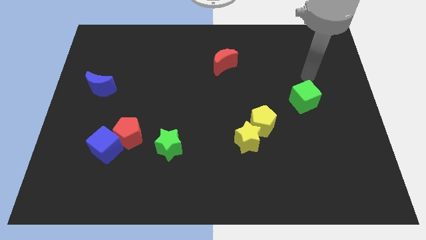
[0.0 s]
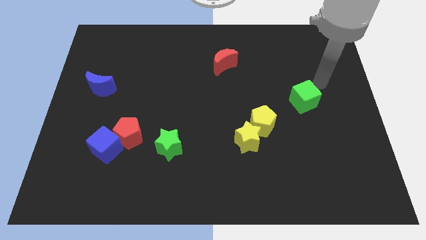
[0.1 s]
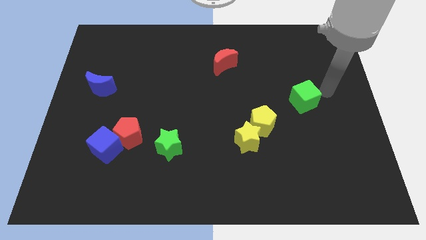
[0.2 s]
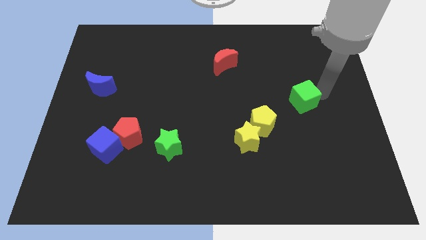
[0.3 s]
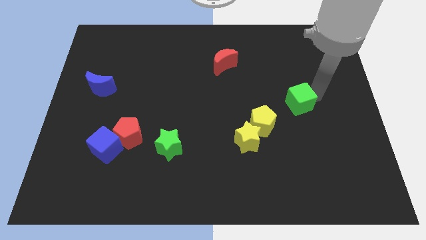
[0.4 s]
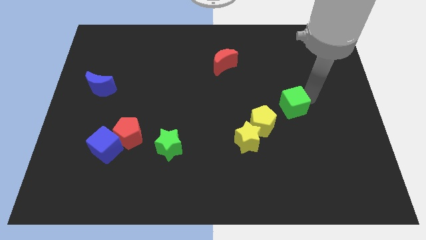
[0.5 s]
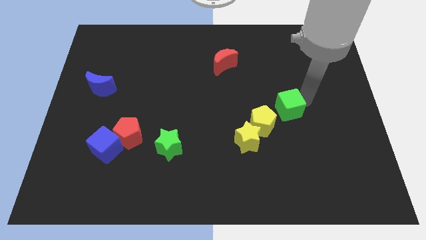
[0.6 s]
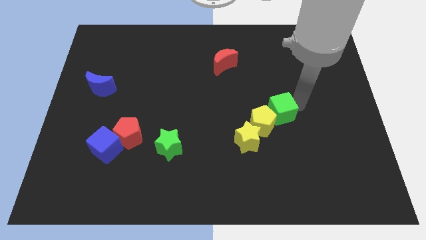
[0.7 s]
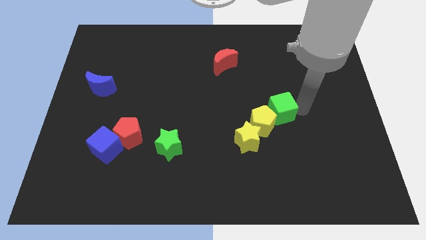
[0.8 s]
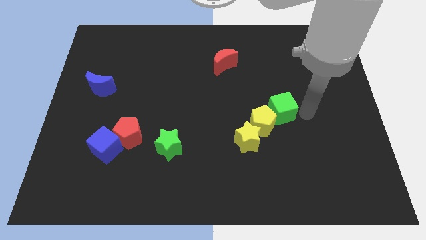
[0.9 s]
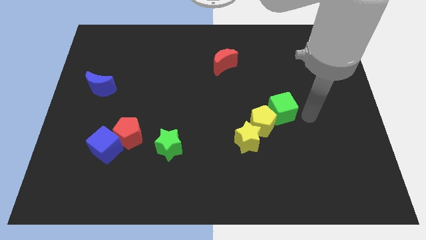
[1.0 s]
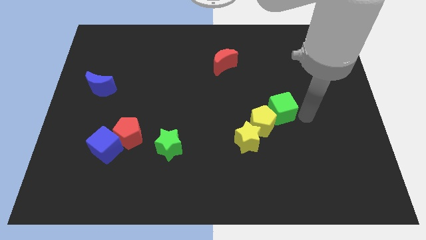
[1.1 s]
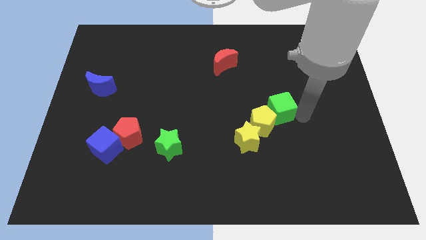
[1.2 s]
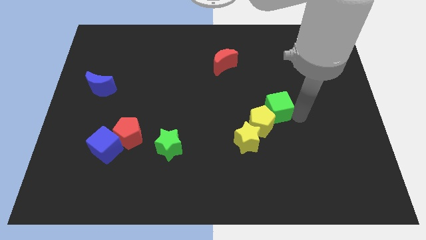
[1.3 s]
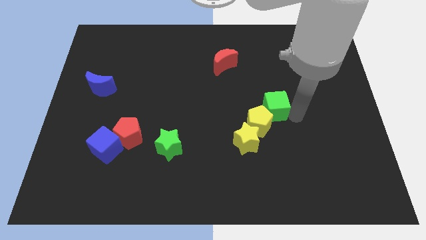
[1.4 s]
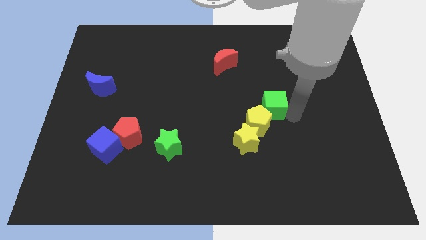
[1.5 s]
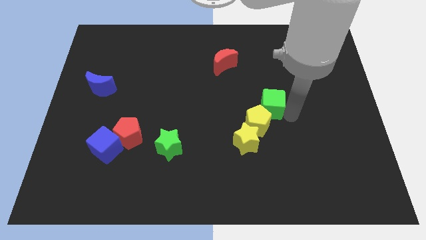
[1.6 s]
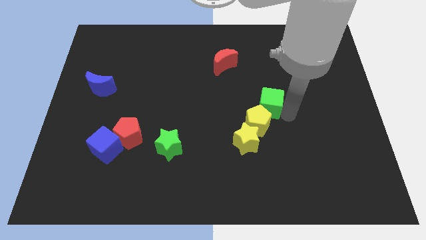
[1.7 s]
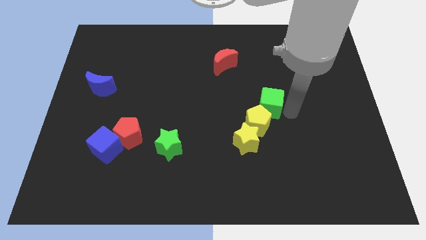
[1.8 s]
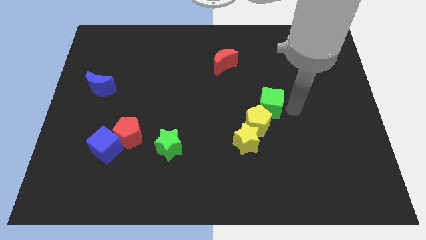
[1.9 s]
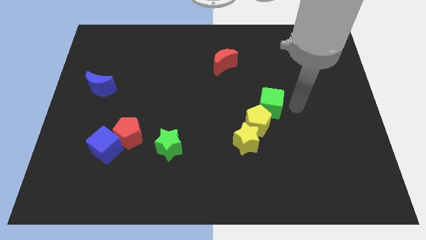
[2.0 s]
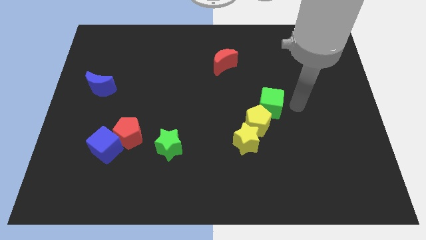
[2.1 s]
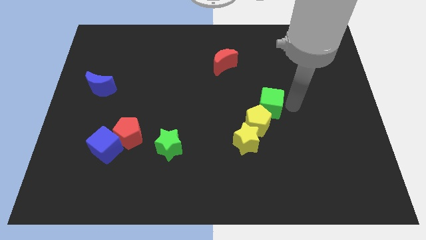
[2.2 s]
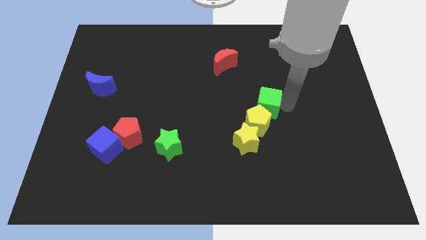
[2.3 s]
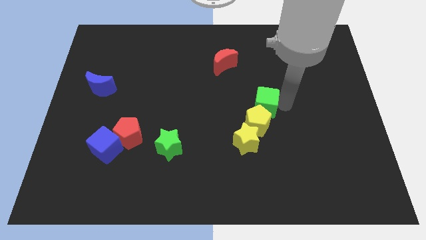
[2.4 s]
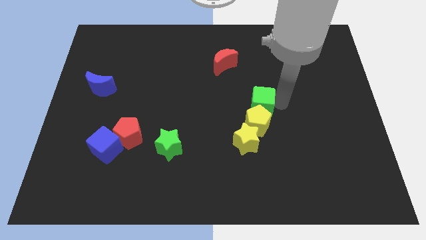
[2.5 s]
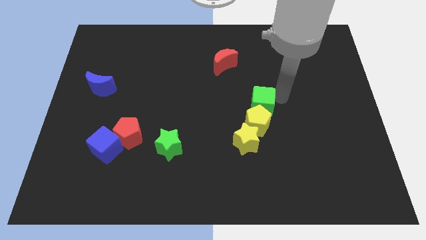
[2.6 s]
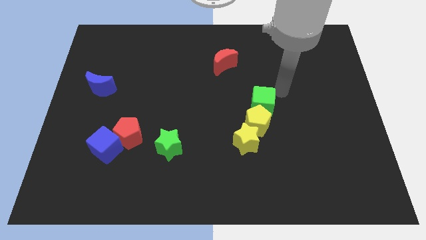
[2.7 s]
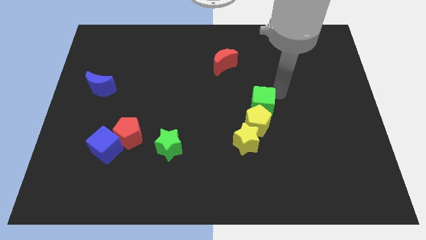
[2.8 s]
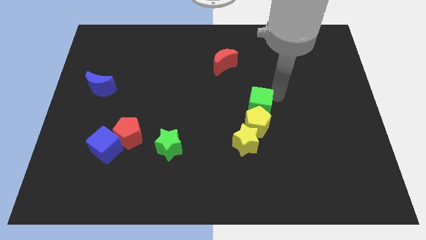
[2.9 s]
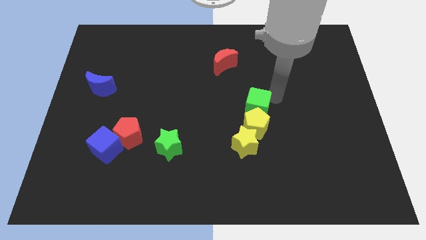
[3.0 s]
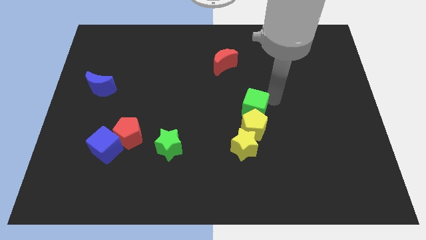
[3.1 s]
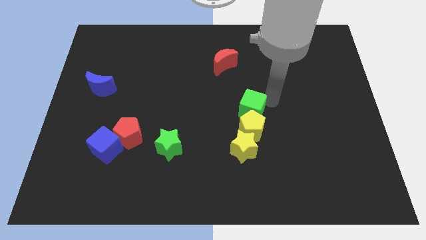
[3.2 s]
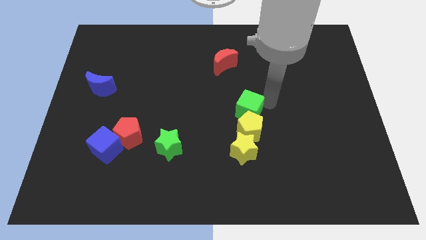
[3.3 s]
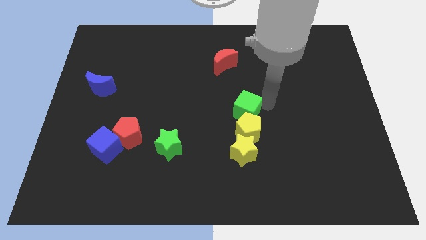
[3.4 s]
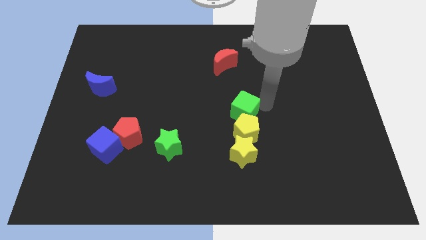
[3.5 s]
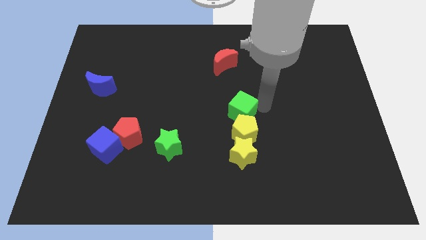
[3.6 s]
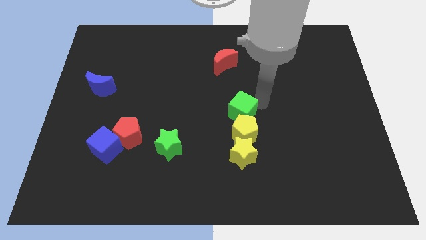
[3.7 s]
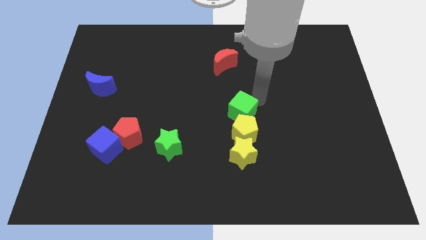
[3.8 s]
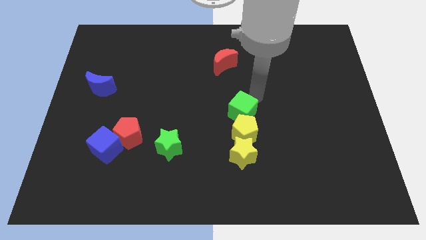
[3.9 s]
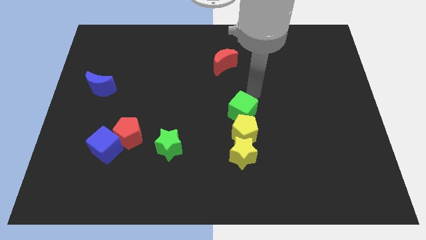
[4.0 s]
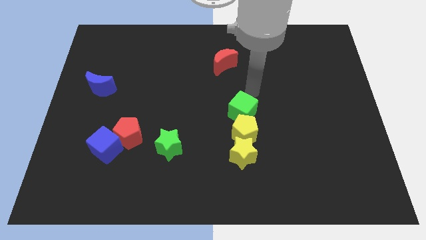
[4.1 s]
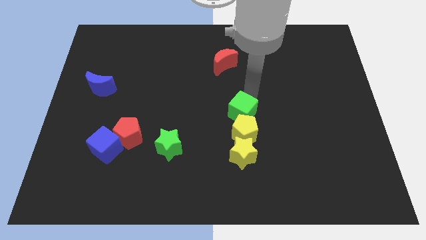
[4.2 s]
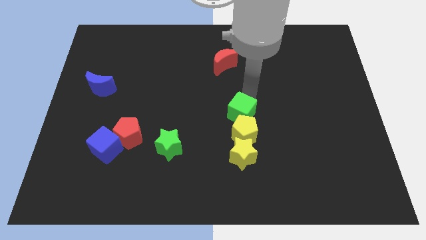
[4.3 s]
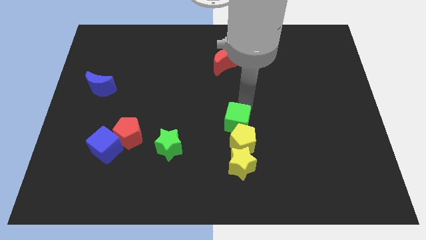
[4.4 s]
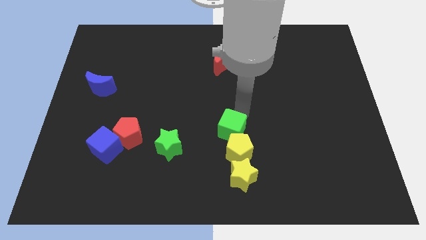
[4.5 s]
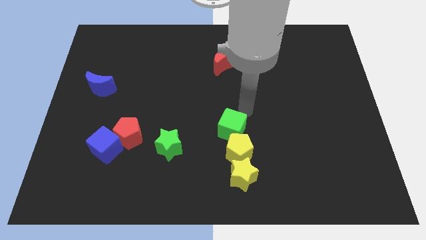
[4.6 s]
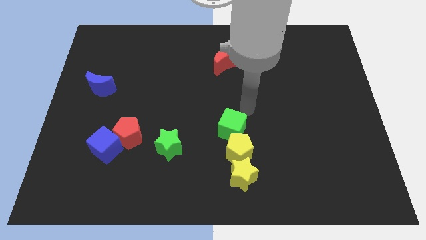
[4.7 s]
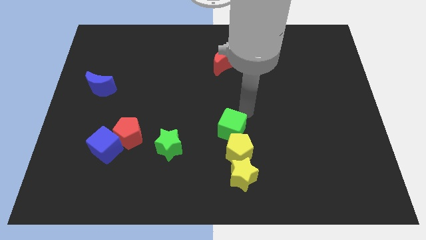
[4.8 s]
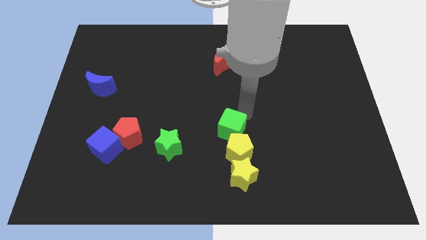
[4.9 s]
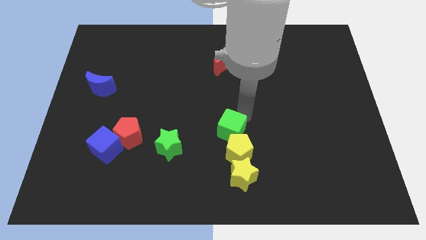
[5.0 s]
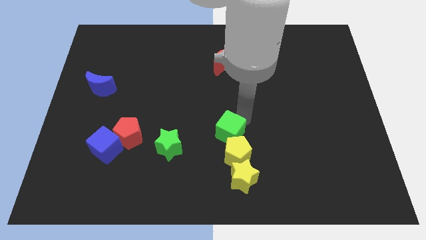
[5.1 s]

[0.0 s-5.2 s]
push the green cube to the right of the green star

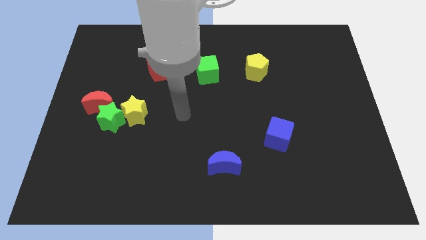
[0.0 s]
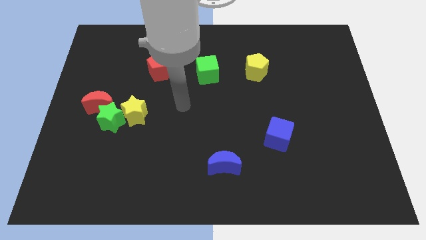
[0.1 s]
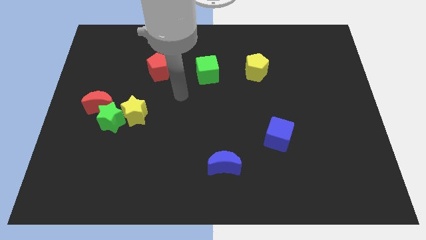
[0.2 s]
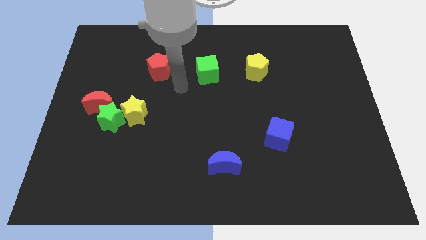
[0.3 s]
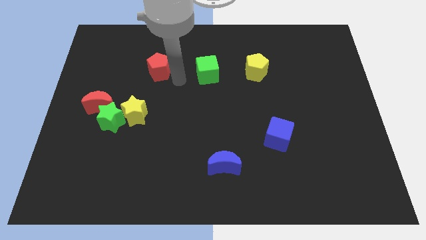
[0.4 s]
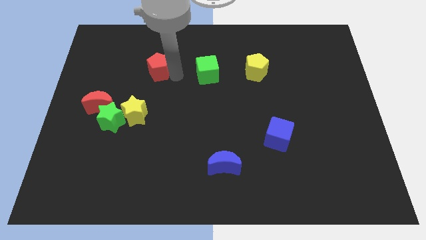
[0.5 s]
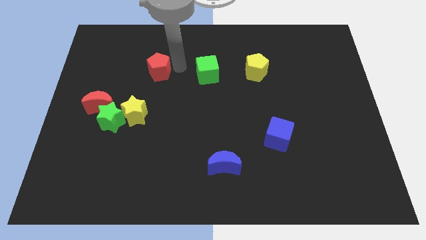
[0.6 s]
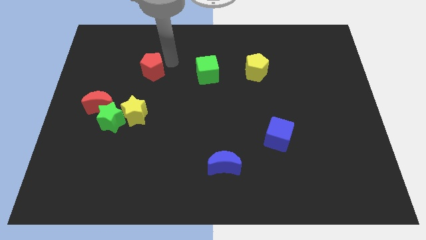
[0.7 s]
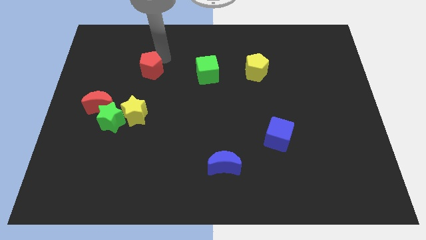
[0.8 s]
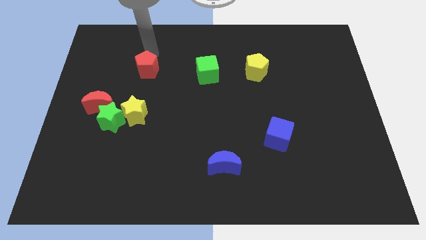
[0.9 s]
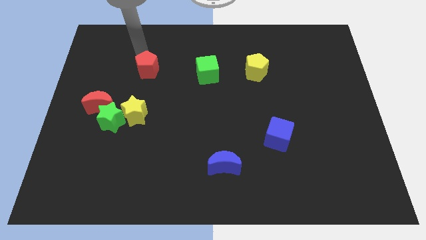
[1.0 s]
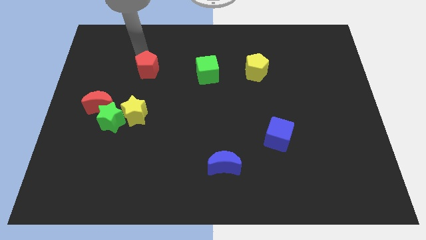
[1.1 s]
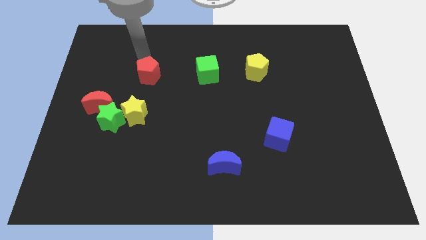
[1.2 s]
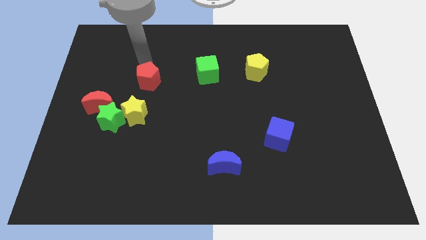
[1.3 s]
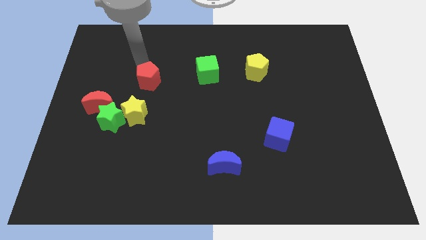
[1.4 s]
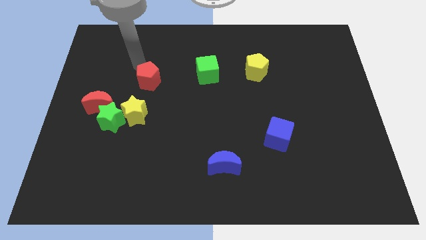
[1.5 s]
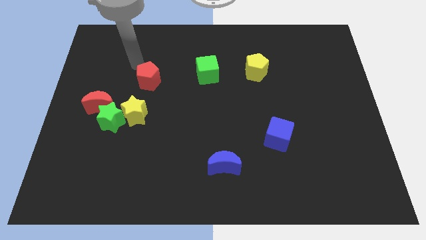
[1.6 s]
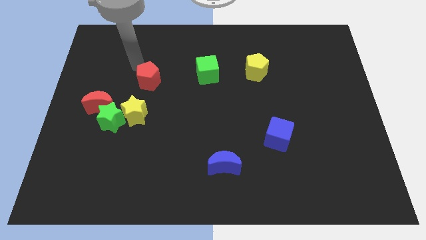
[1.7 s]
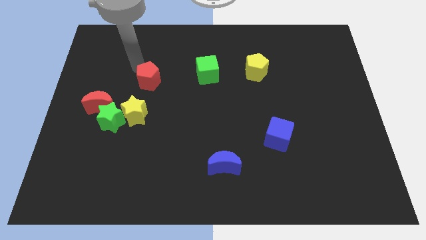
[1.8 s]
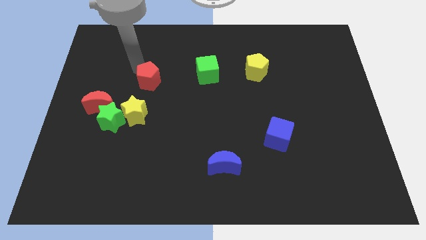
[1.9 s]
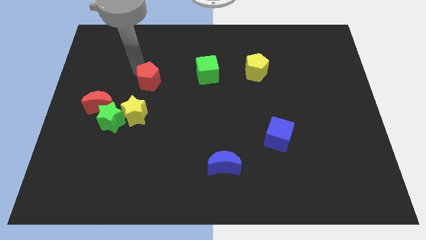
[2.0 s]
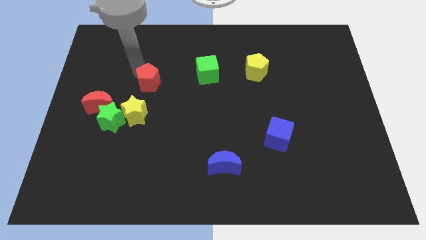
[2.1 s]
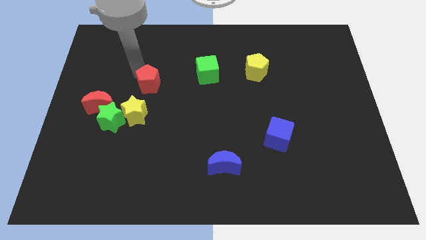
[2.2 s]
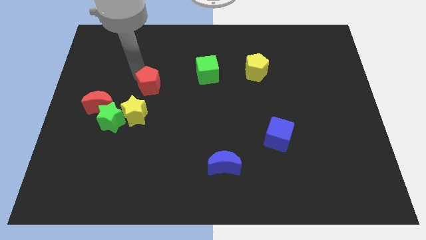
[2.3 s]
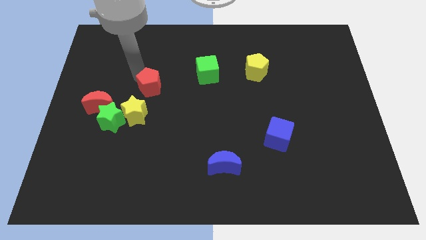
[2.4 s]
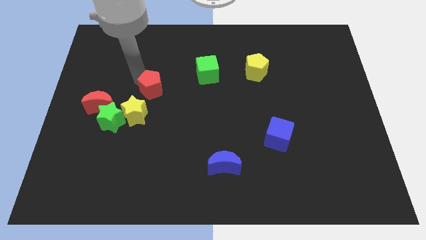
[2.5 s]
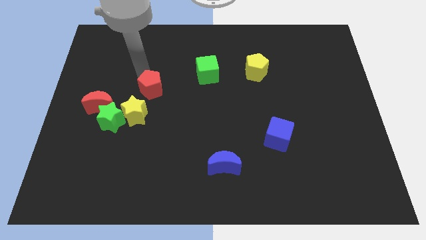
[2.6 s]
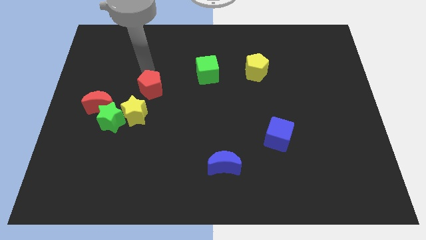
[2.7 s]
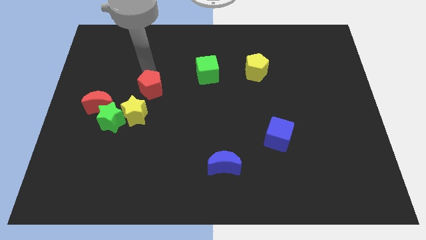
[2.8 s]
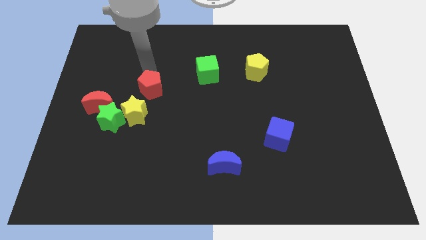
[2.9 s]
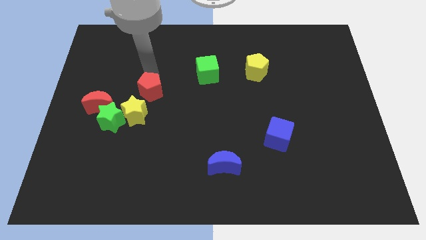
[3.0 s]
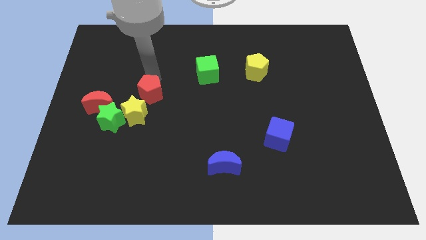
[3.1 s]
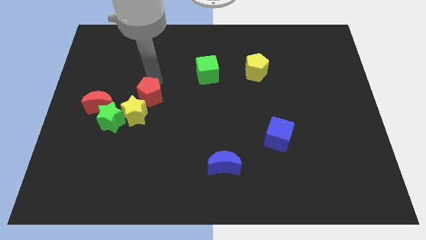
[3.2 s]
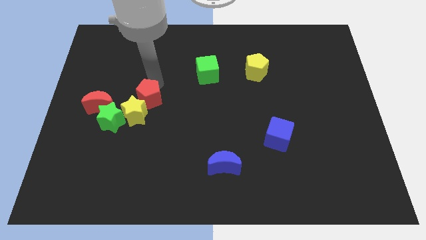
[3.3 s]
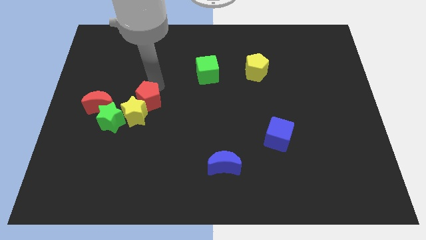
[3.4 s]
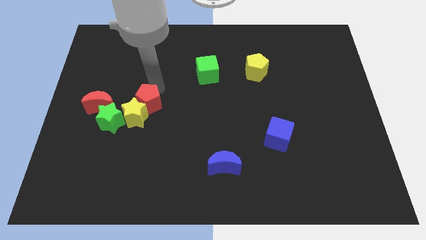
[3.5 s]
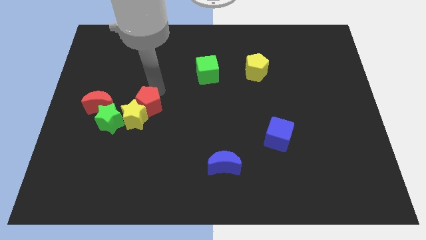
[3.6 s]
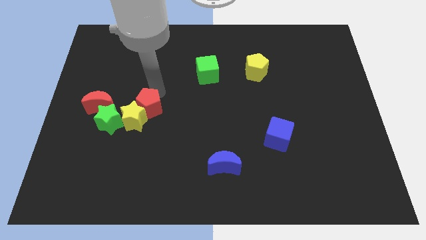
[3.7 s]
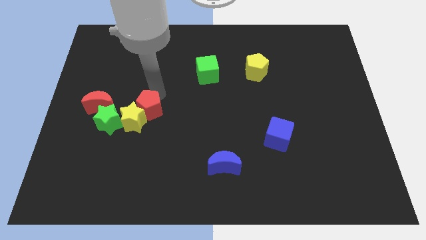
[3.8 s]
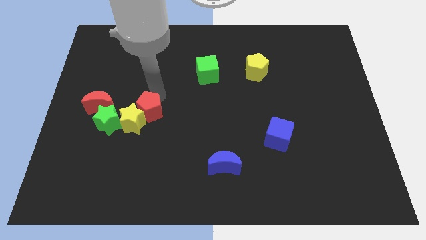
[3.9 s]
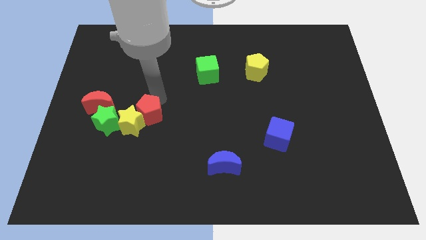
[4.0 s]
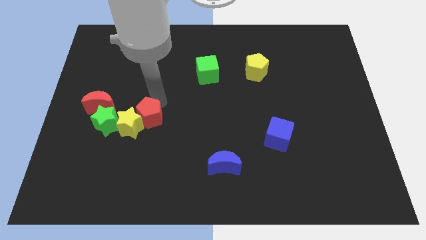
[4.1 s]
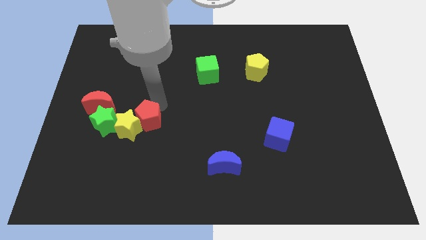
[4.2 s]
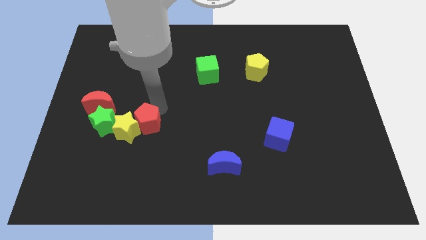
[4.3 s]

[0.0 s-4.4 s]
move the red pentagon to the bottom right of the yellow star
